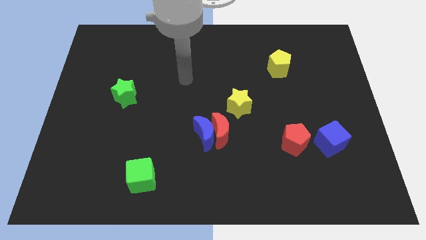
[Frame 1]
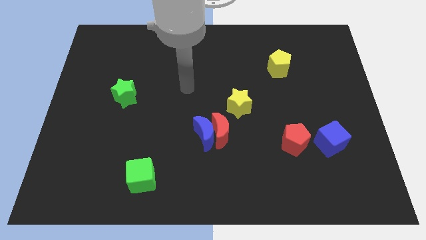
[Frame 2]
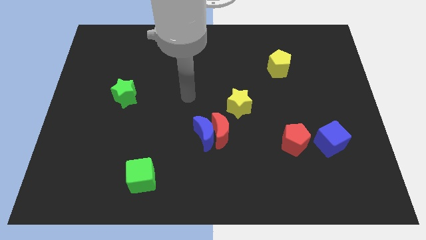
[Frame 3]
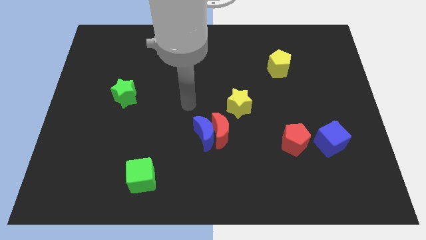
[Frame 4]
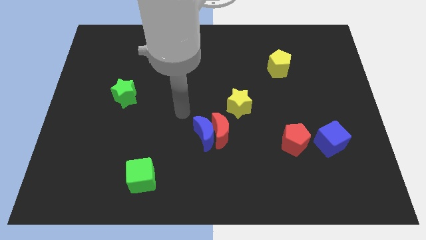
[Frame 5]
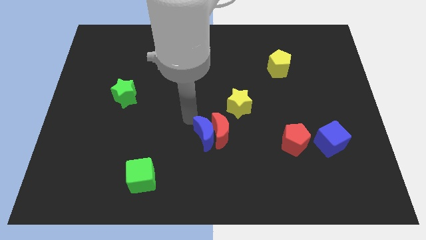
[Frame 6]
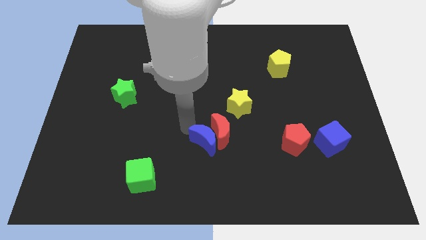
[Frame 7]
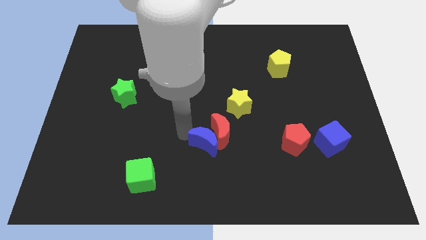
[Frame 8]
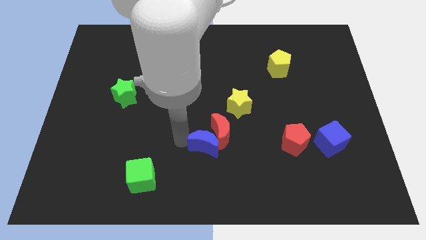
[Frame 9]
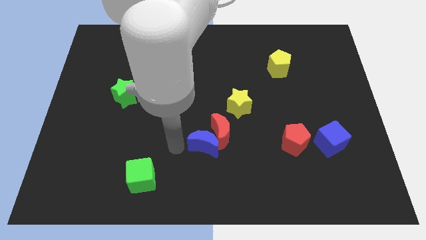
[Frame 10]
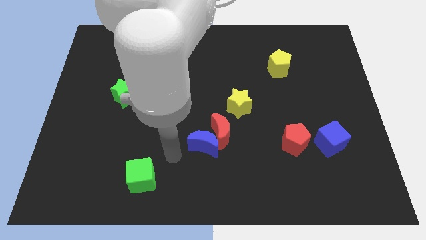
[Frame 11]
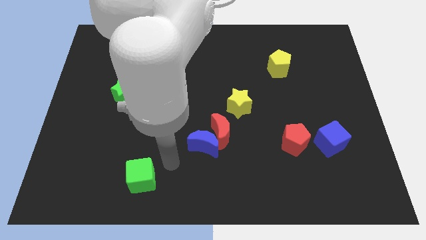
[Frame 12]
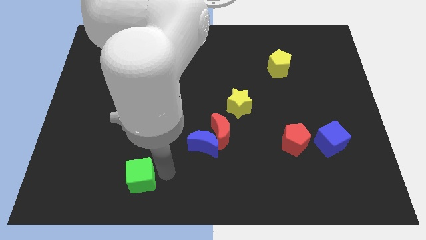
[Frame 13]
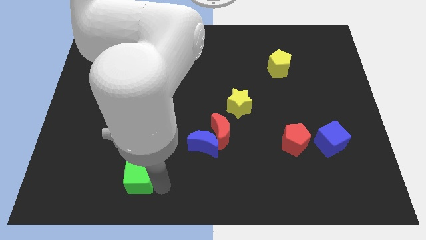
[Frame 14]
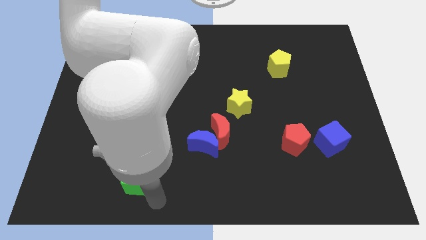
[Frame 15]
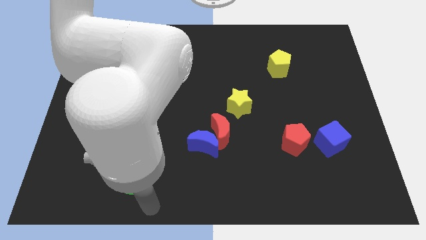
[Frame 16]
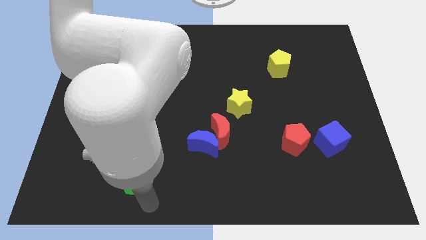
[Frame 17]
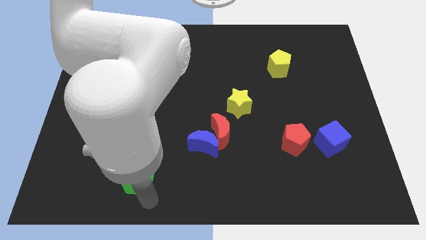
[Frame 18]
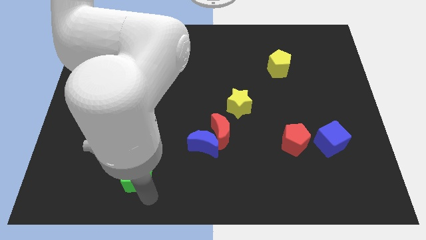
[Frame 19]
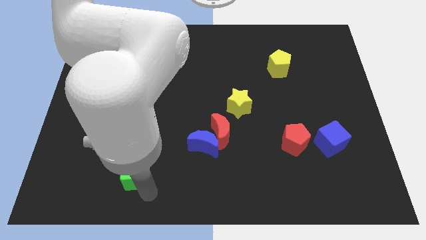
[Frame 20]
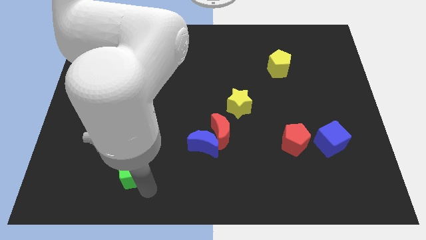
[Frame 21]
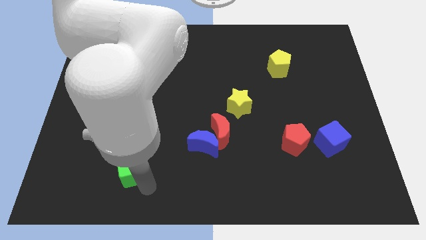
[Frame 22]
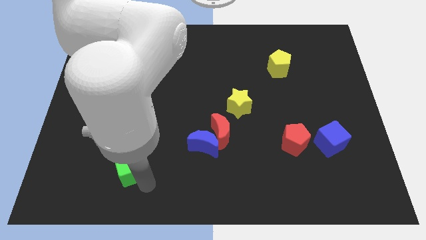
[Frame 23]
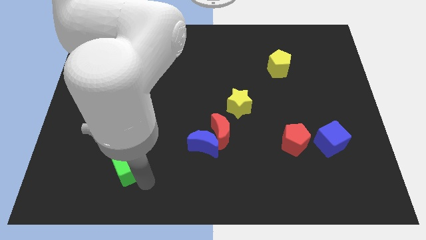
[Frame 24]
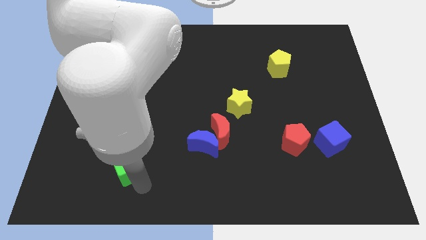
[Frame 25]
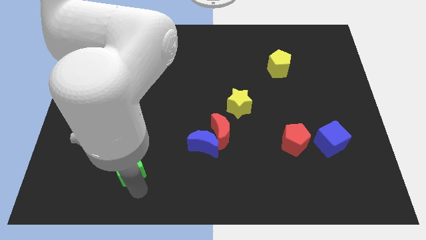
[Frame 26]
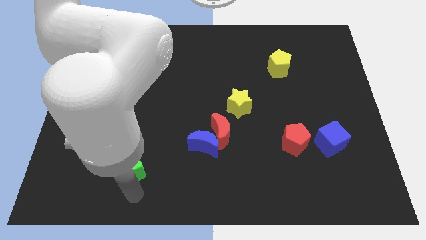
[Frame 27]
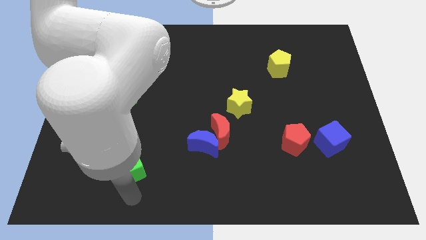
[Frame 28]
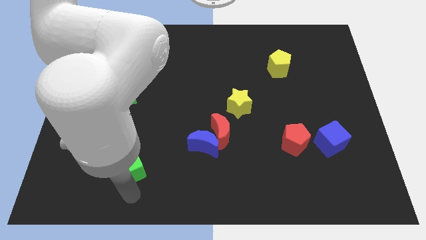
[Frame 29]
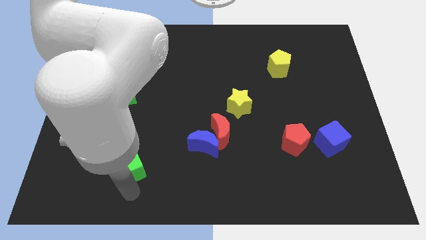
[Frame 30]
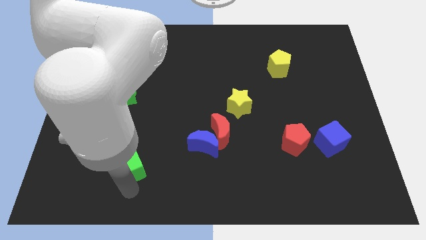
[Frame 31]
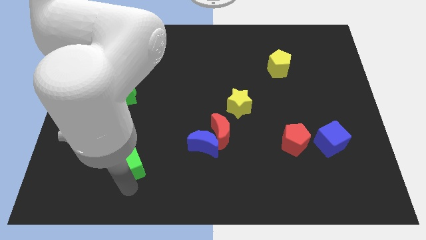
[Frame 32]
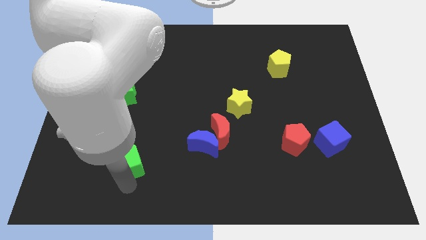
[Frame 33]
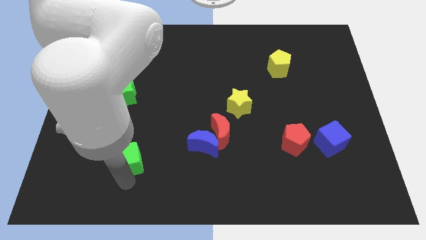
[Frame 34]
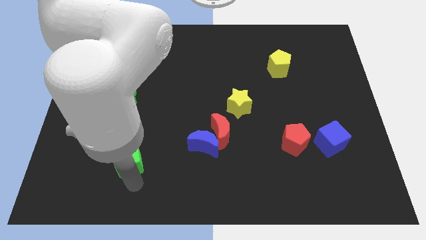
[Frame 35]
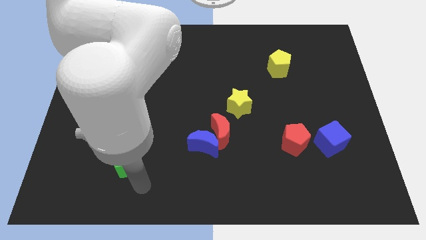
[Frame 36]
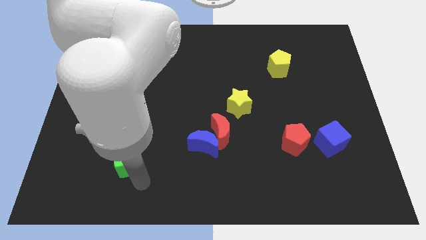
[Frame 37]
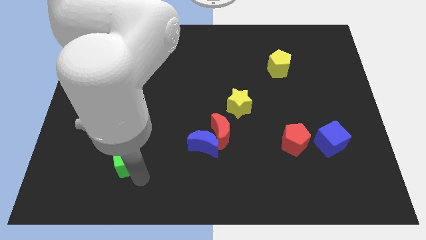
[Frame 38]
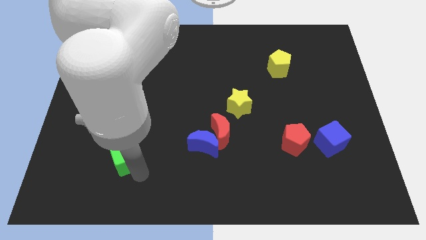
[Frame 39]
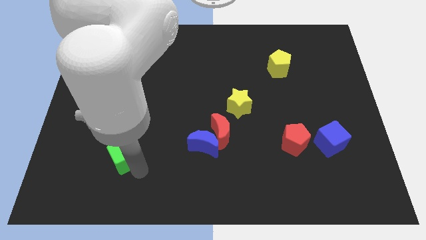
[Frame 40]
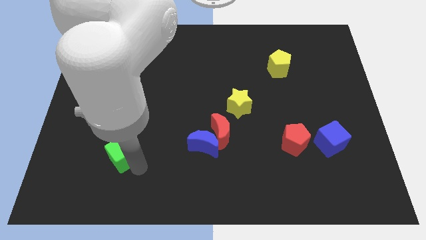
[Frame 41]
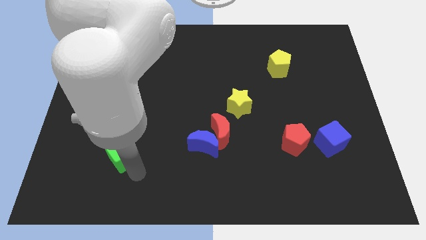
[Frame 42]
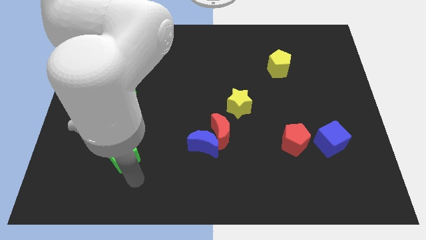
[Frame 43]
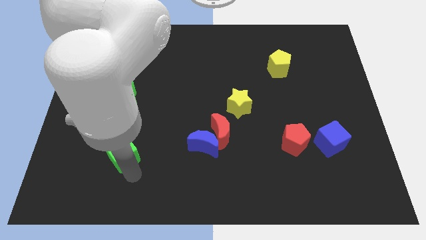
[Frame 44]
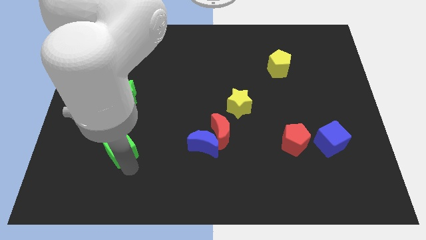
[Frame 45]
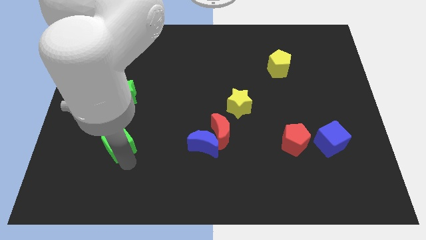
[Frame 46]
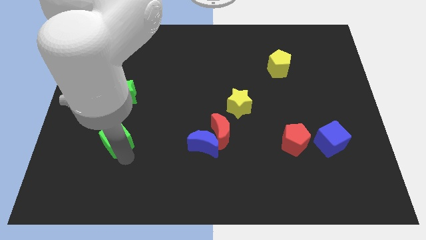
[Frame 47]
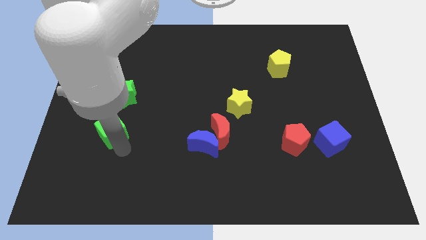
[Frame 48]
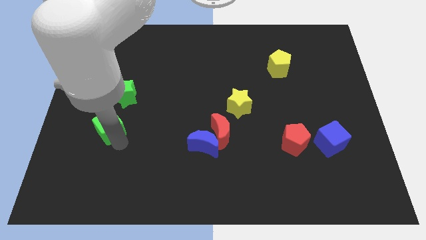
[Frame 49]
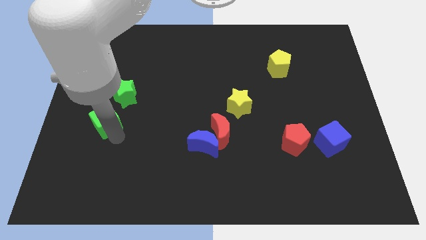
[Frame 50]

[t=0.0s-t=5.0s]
push the green cube diagonally down and to the left of the green star

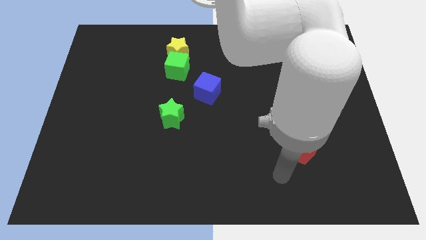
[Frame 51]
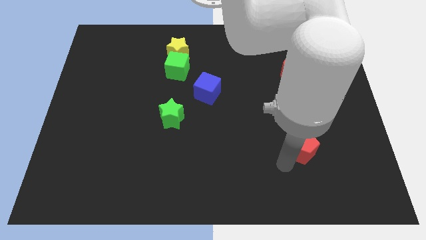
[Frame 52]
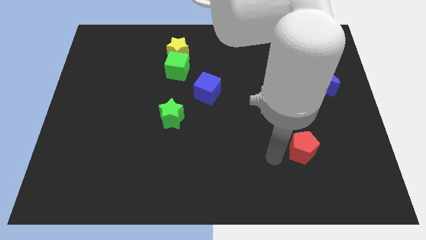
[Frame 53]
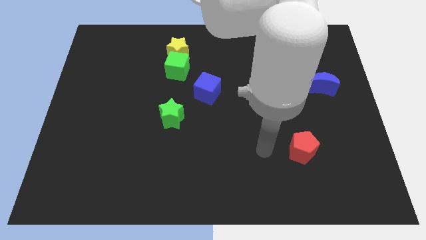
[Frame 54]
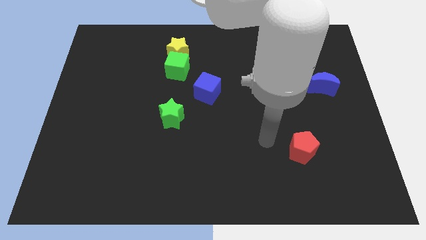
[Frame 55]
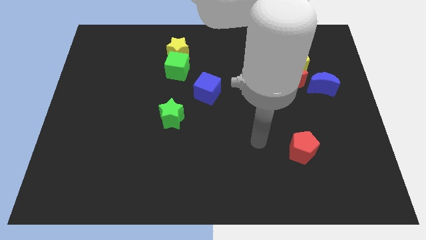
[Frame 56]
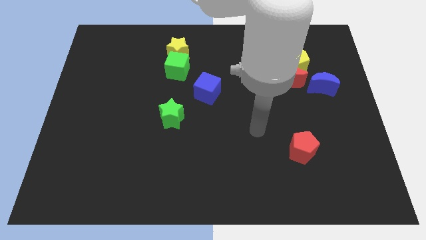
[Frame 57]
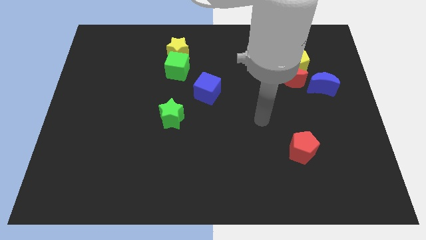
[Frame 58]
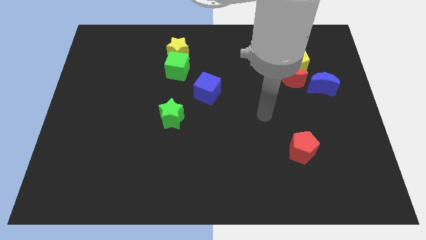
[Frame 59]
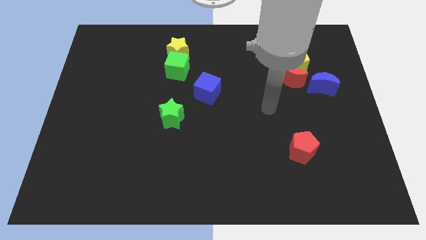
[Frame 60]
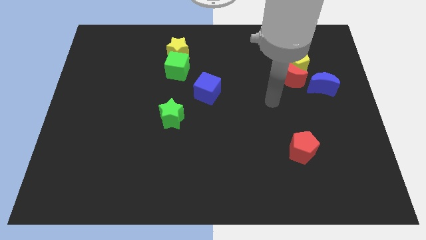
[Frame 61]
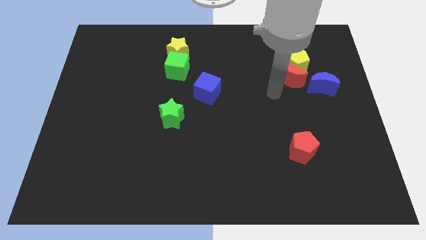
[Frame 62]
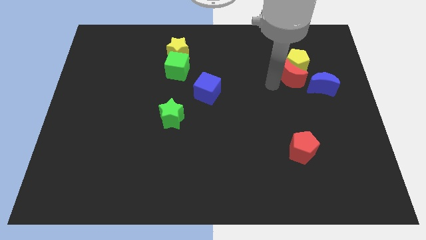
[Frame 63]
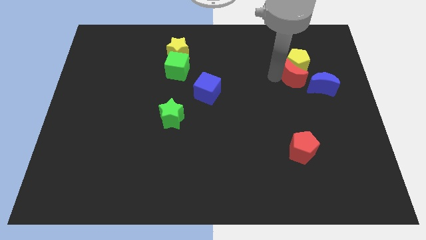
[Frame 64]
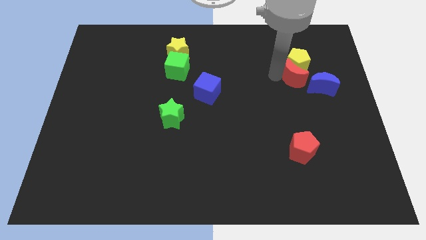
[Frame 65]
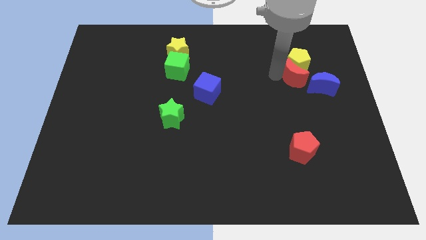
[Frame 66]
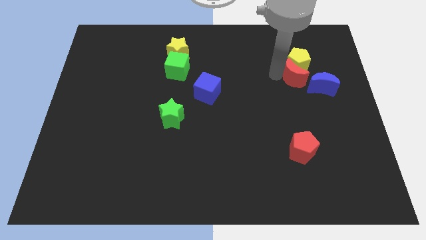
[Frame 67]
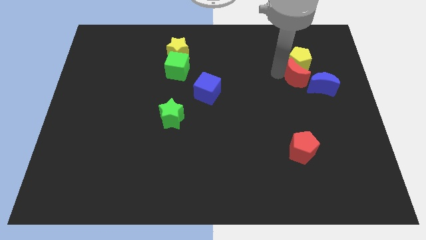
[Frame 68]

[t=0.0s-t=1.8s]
move the yellow pentagon to the top side of the blue moon

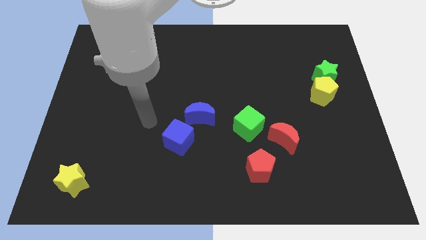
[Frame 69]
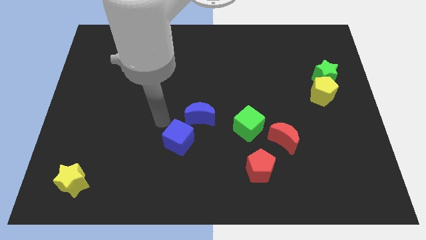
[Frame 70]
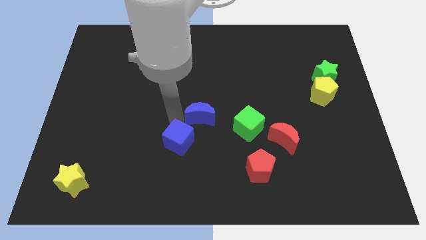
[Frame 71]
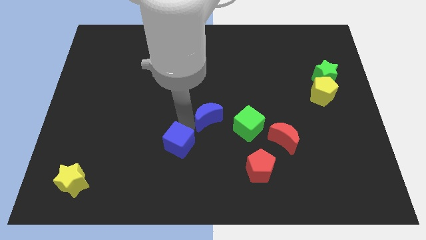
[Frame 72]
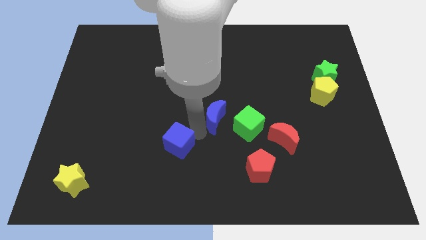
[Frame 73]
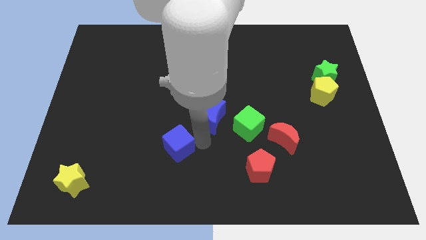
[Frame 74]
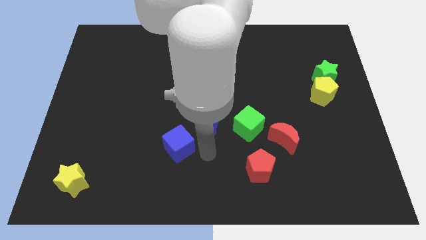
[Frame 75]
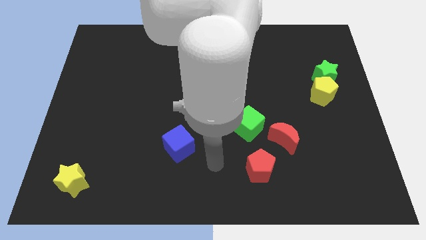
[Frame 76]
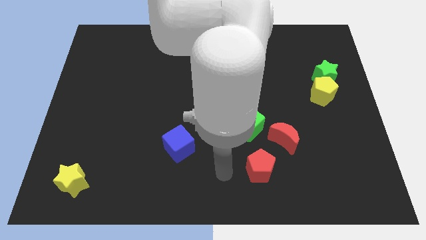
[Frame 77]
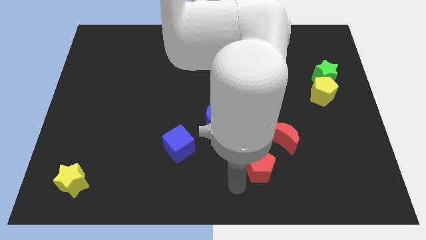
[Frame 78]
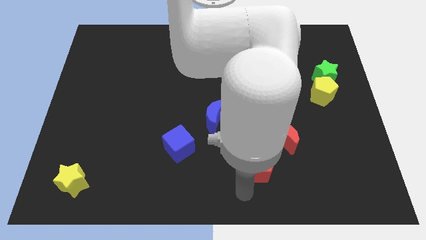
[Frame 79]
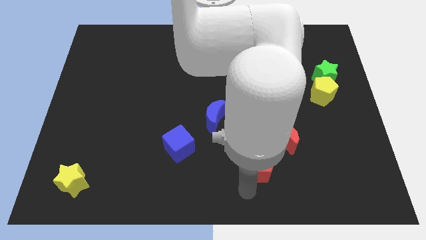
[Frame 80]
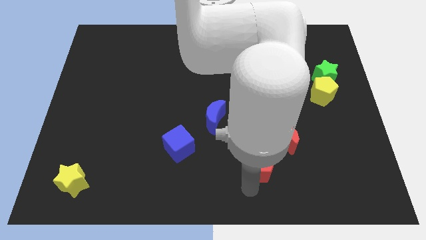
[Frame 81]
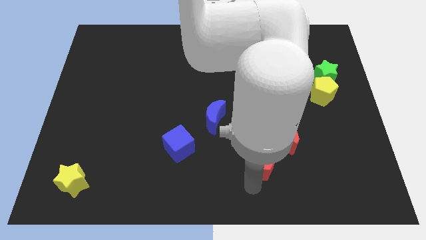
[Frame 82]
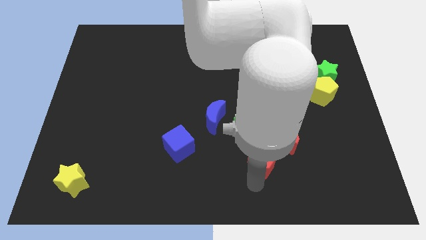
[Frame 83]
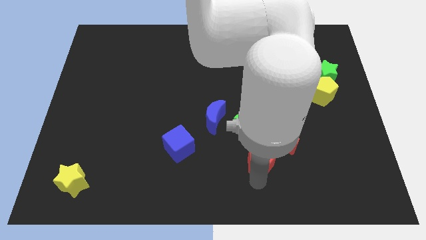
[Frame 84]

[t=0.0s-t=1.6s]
put the red pentagon to the bottom right of the green cube
